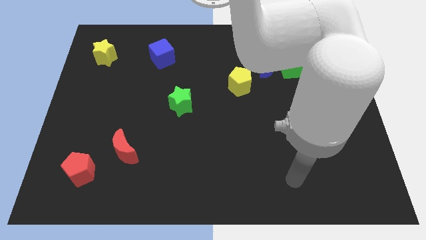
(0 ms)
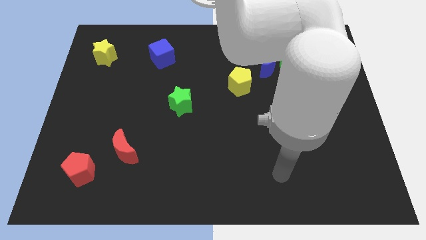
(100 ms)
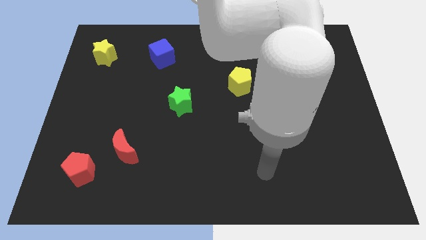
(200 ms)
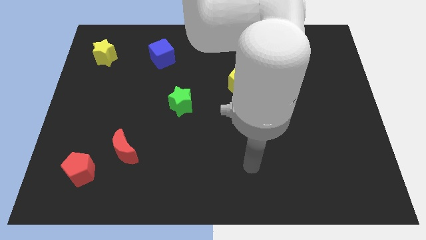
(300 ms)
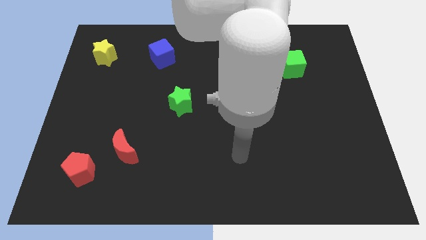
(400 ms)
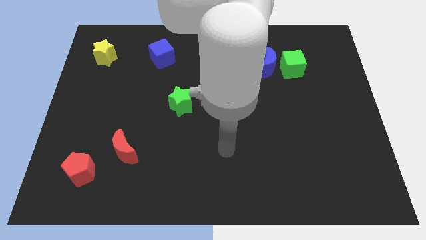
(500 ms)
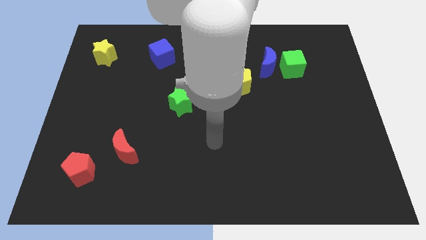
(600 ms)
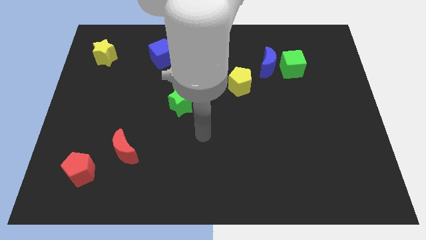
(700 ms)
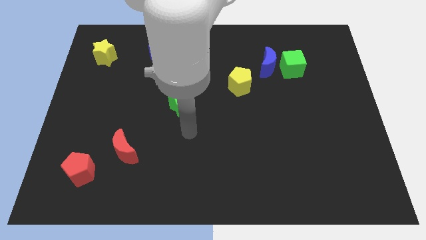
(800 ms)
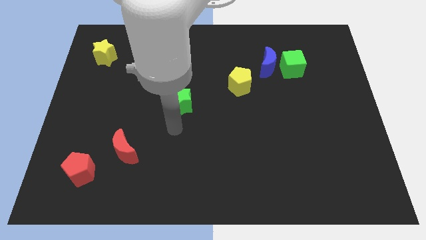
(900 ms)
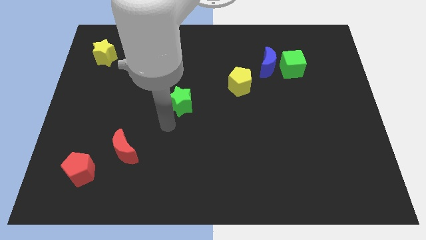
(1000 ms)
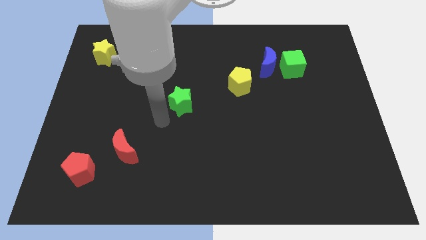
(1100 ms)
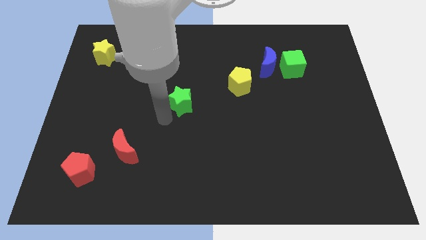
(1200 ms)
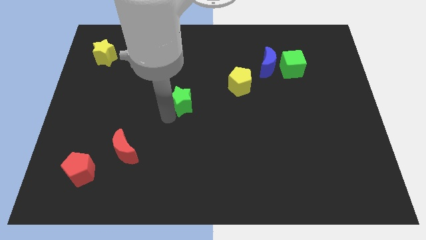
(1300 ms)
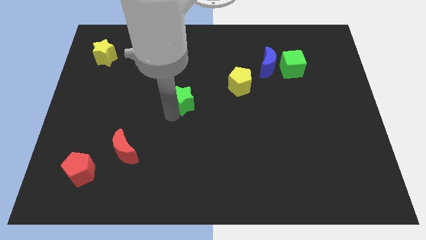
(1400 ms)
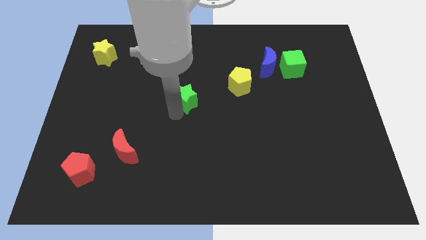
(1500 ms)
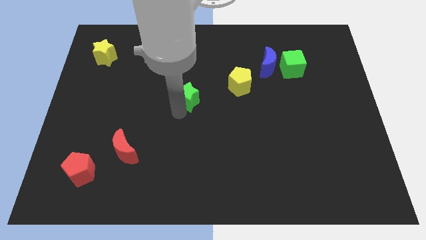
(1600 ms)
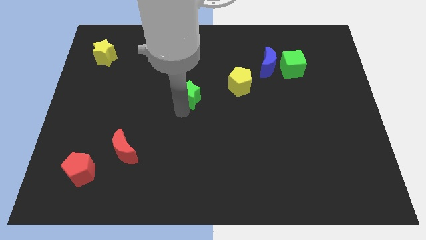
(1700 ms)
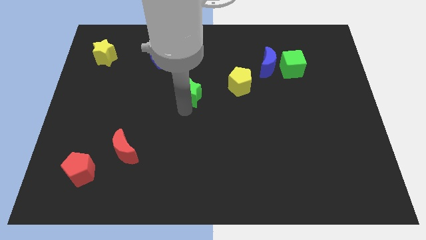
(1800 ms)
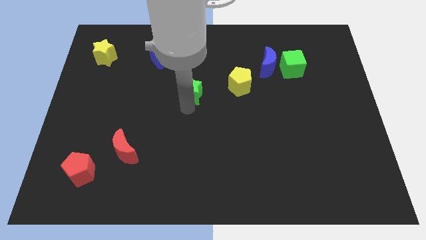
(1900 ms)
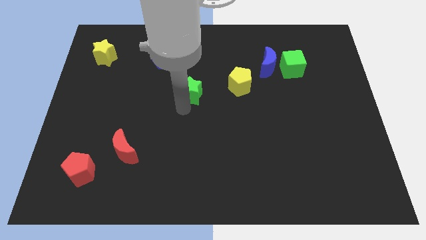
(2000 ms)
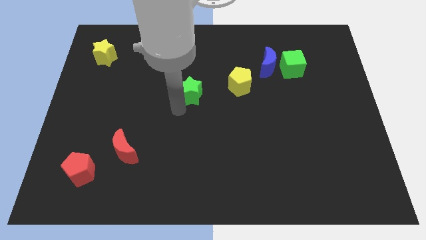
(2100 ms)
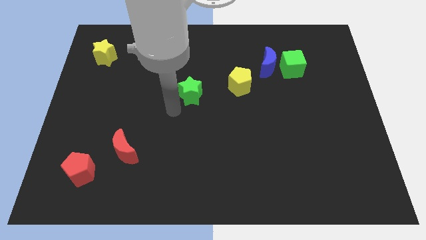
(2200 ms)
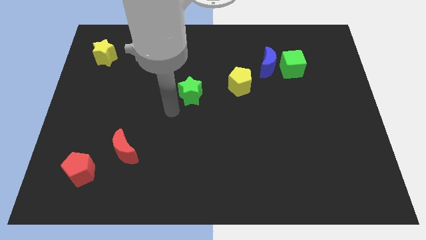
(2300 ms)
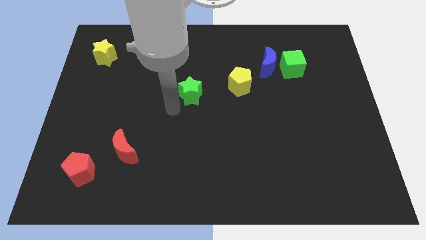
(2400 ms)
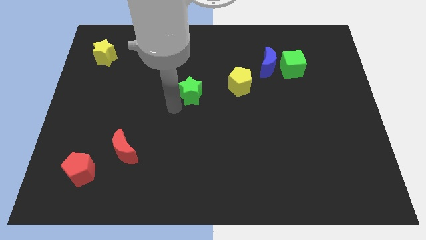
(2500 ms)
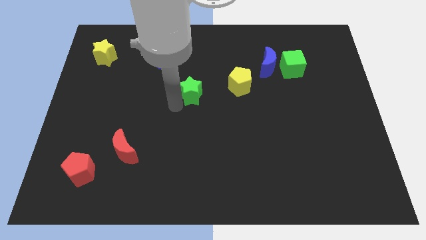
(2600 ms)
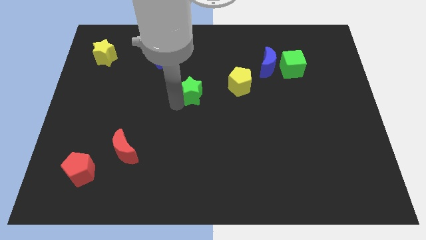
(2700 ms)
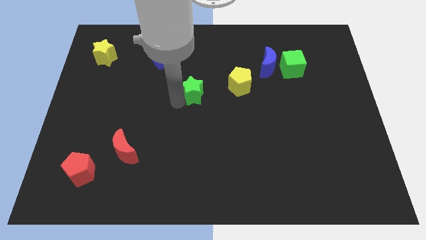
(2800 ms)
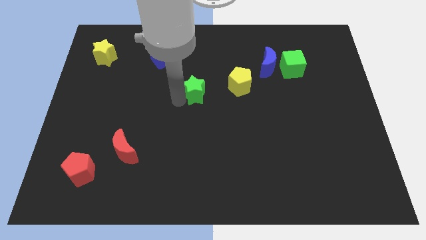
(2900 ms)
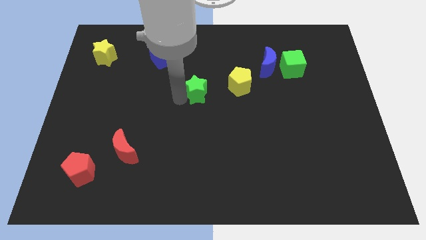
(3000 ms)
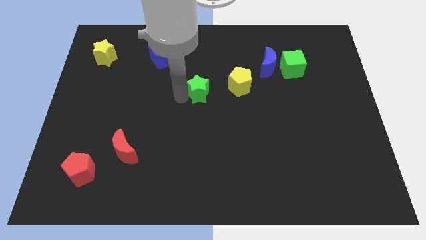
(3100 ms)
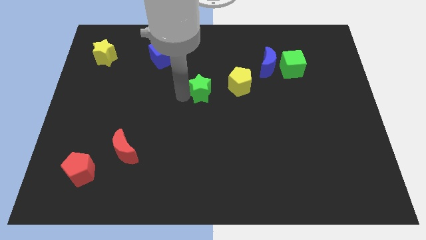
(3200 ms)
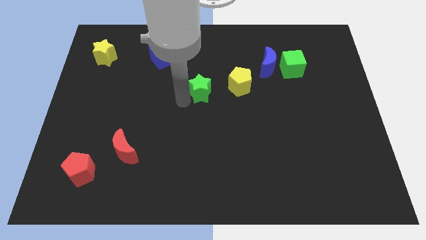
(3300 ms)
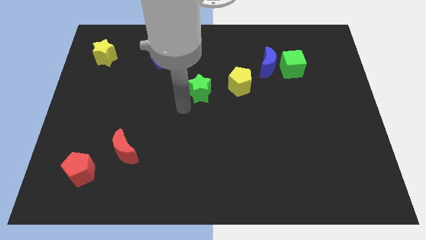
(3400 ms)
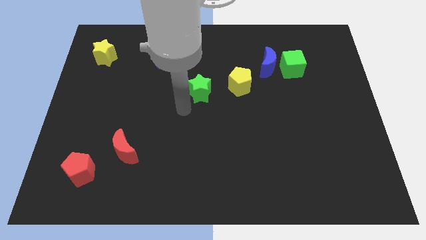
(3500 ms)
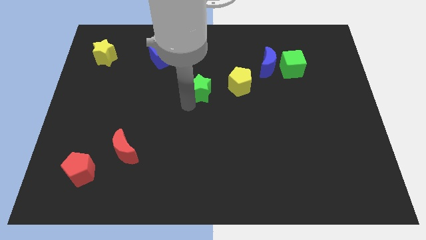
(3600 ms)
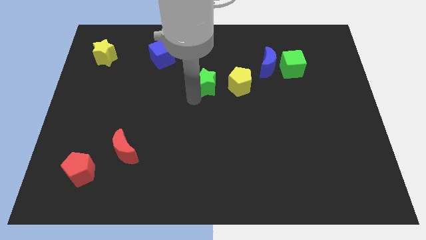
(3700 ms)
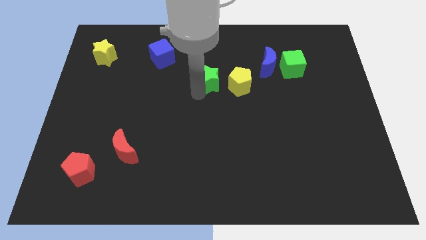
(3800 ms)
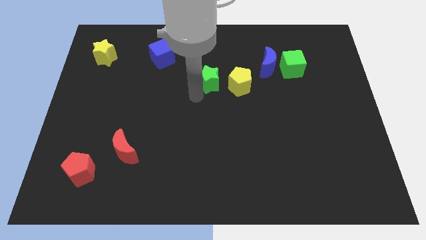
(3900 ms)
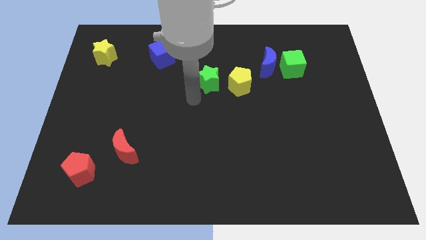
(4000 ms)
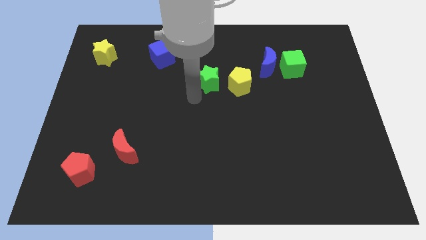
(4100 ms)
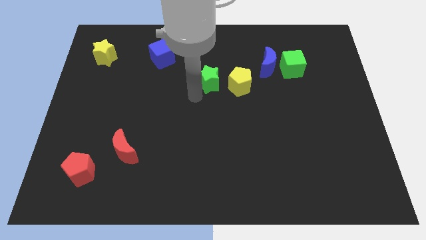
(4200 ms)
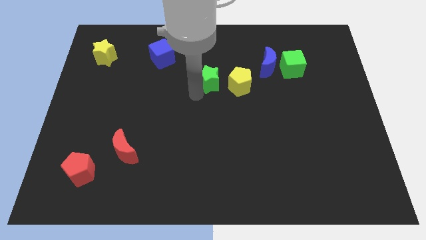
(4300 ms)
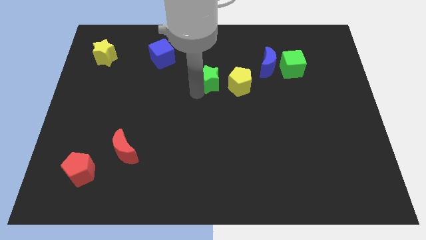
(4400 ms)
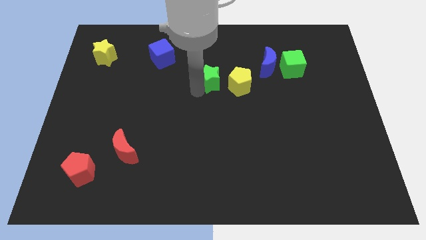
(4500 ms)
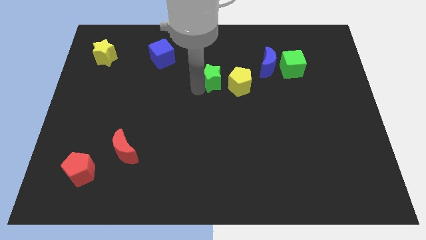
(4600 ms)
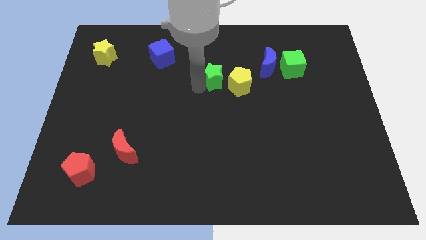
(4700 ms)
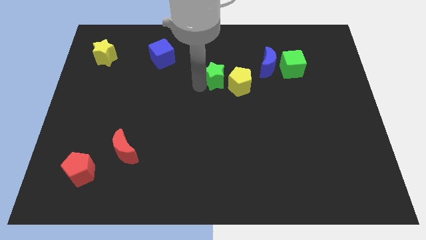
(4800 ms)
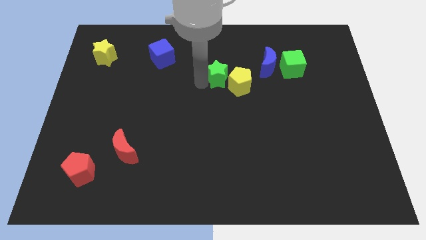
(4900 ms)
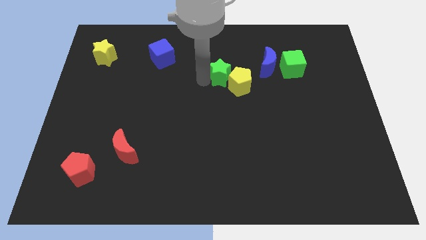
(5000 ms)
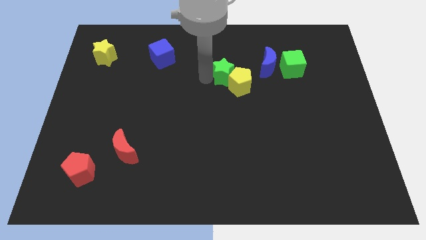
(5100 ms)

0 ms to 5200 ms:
put the green star to the top of the yellow pentagon

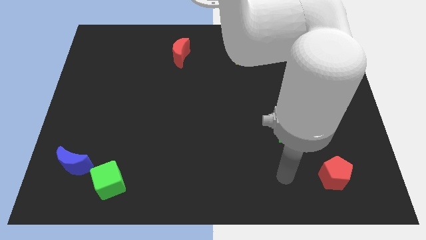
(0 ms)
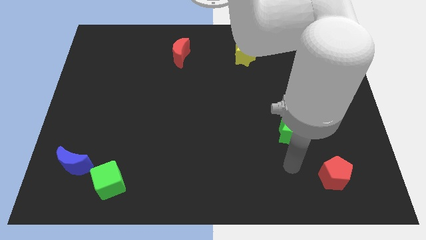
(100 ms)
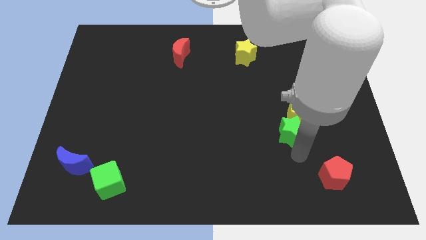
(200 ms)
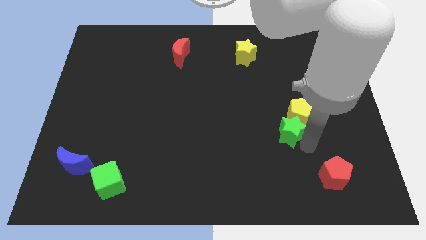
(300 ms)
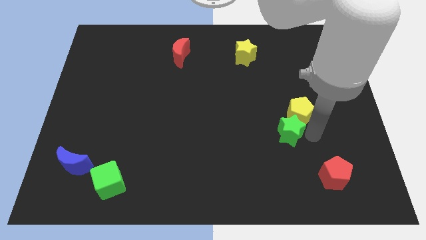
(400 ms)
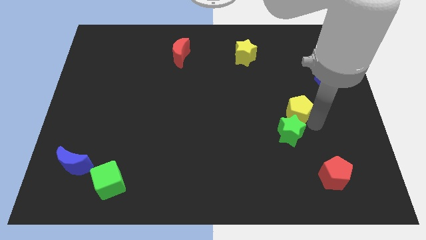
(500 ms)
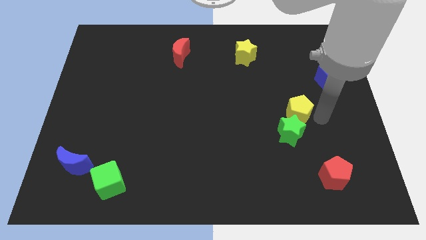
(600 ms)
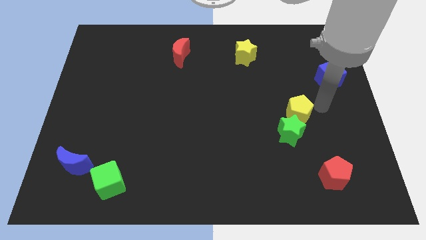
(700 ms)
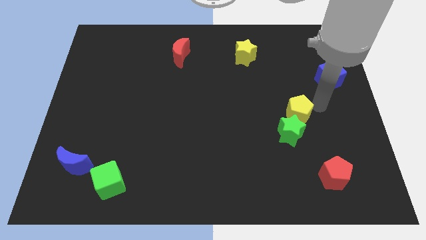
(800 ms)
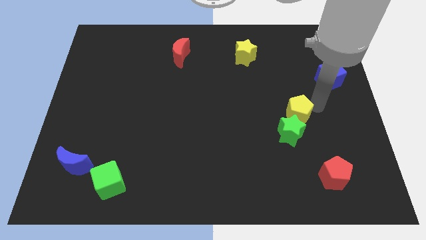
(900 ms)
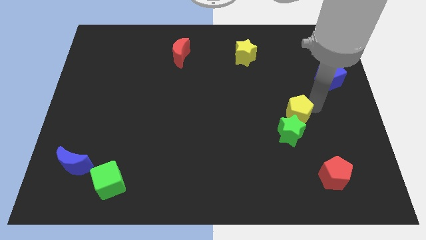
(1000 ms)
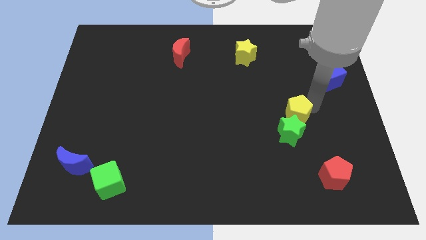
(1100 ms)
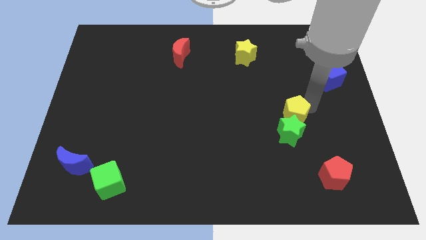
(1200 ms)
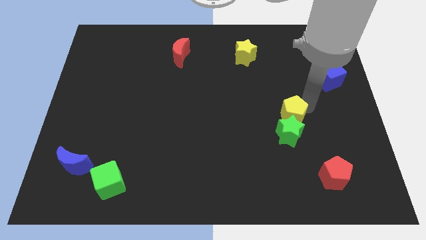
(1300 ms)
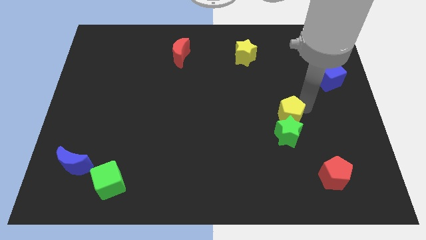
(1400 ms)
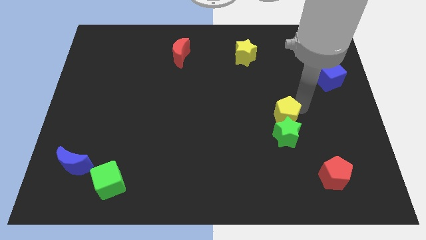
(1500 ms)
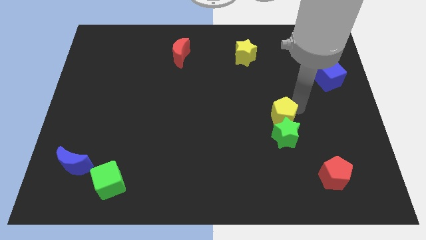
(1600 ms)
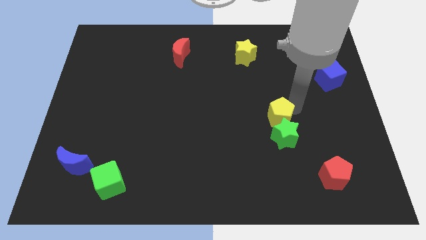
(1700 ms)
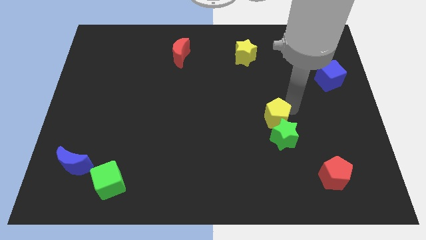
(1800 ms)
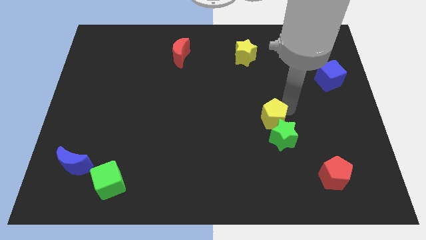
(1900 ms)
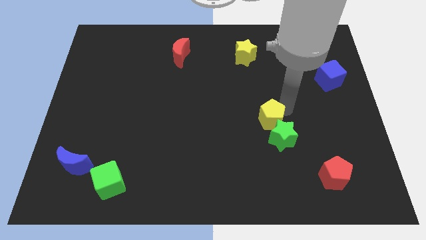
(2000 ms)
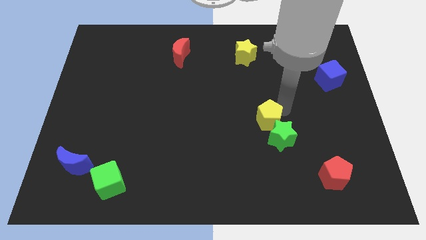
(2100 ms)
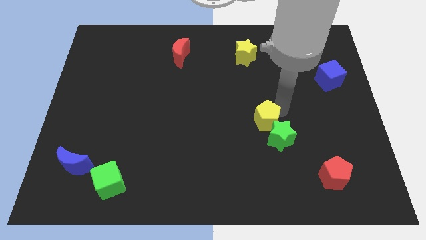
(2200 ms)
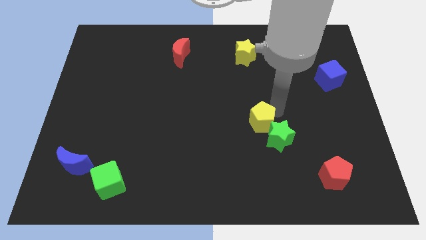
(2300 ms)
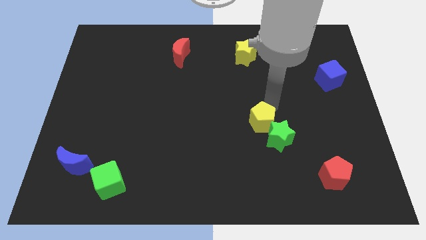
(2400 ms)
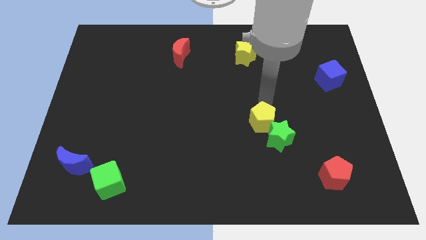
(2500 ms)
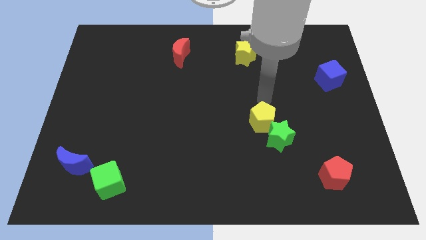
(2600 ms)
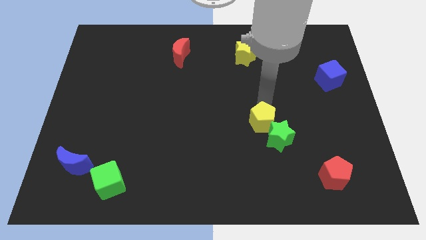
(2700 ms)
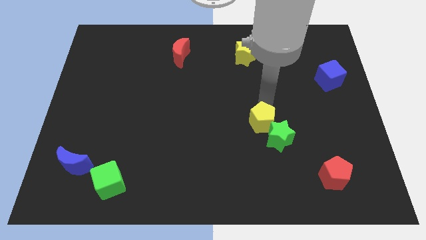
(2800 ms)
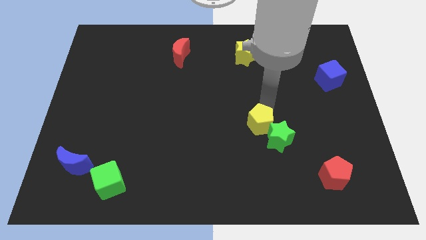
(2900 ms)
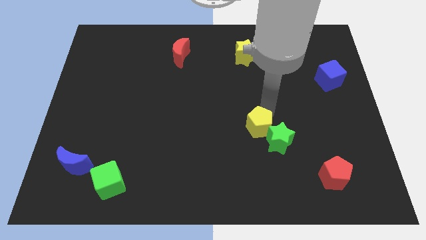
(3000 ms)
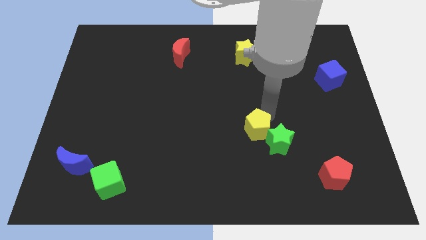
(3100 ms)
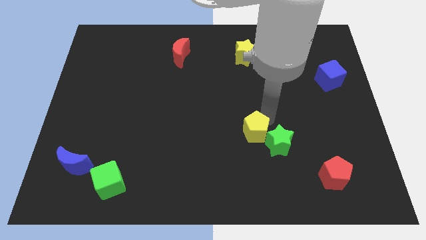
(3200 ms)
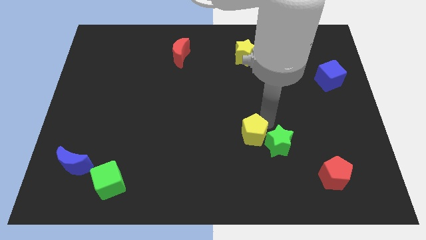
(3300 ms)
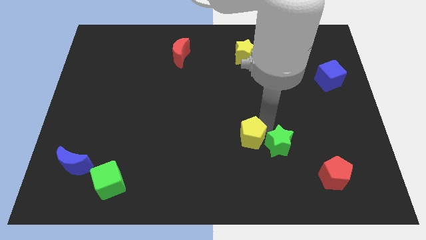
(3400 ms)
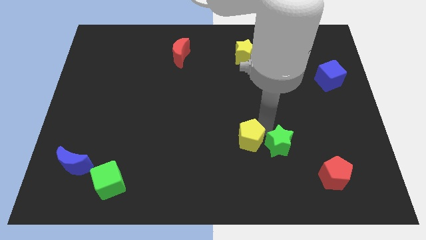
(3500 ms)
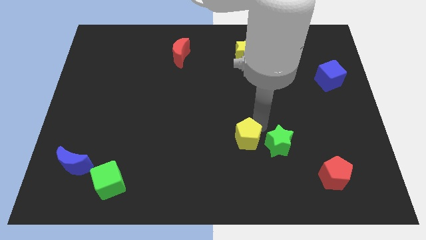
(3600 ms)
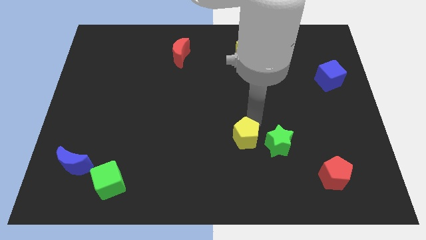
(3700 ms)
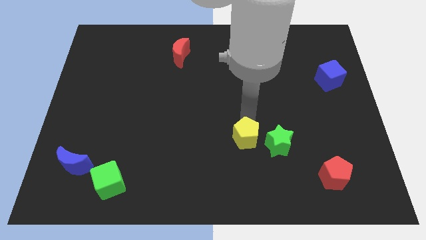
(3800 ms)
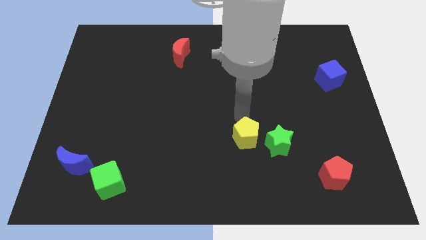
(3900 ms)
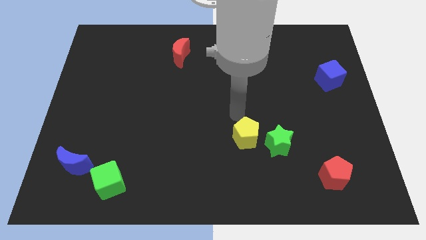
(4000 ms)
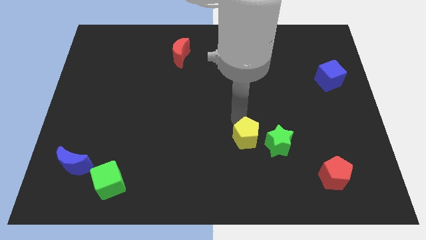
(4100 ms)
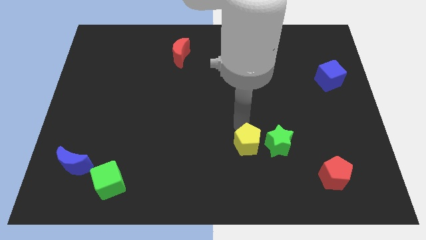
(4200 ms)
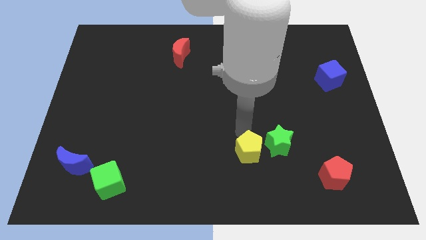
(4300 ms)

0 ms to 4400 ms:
put the yellow pentagon diagonally down and to the left of the green star
